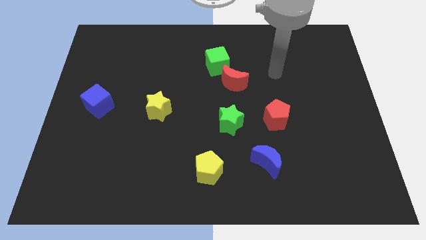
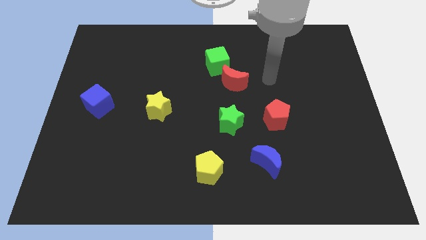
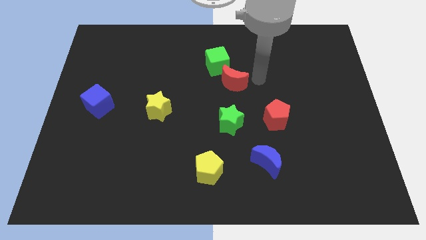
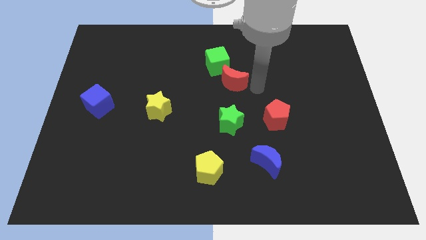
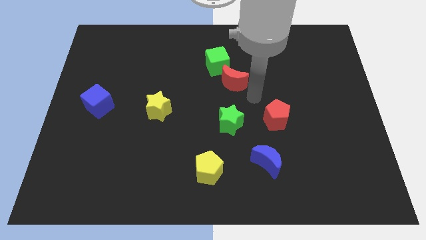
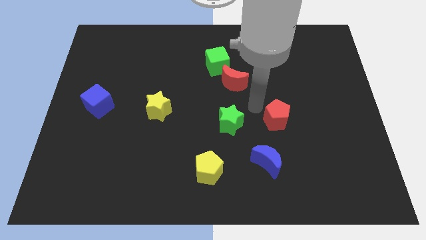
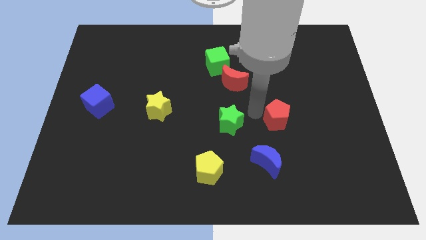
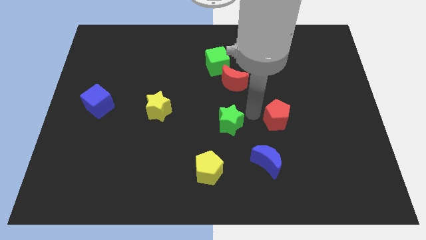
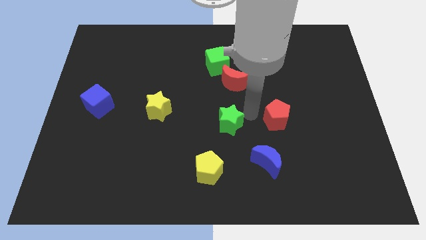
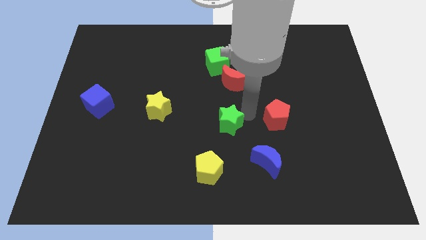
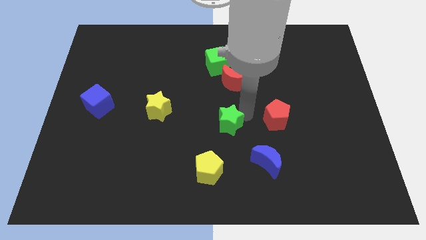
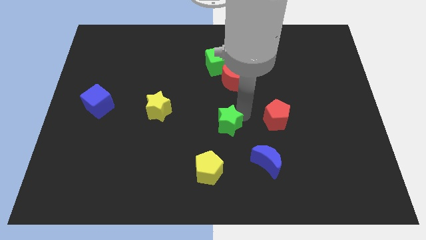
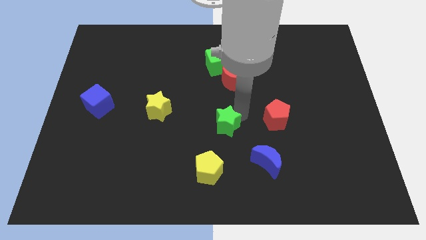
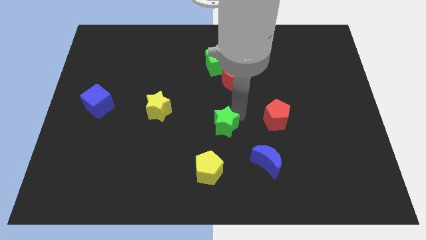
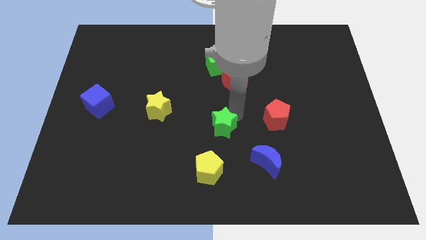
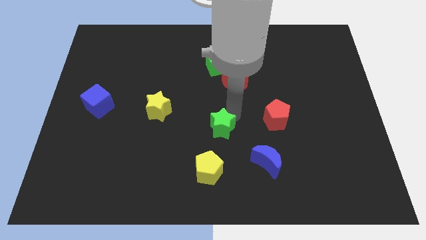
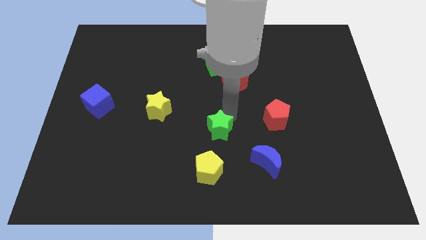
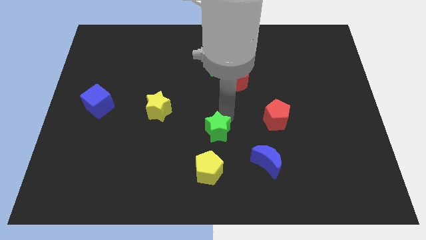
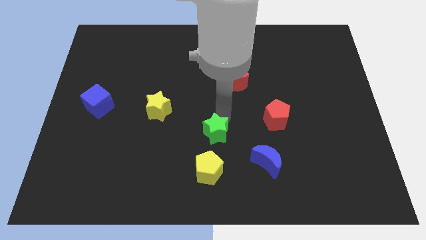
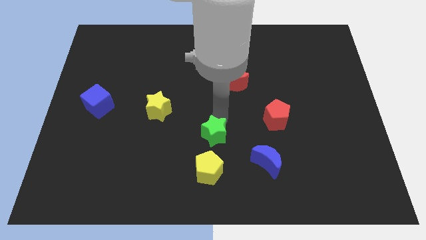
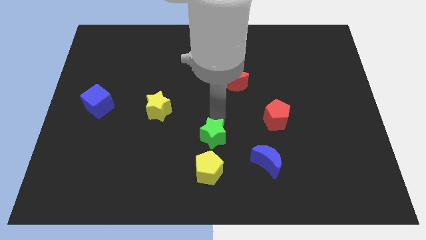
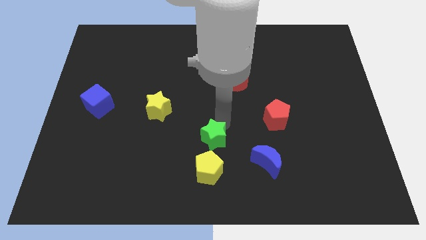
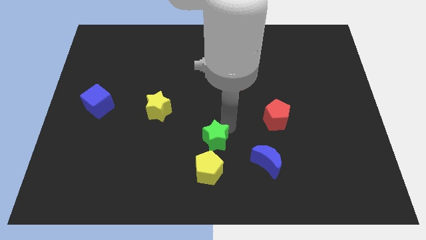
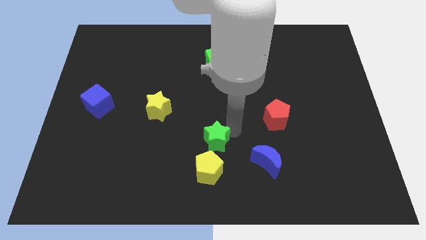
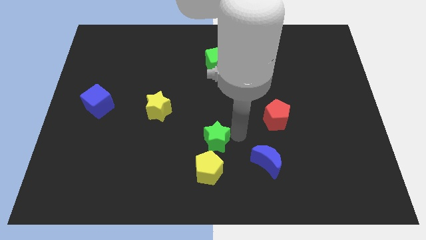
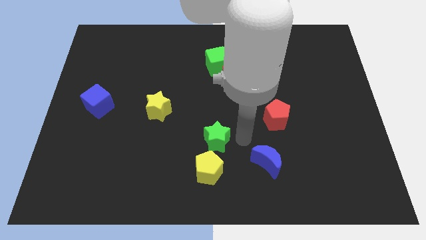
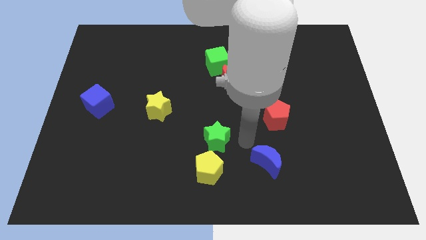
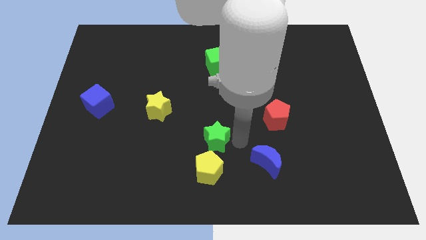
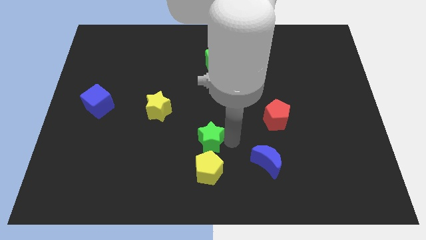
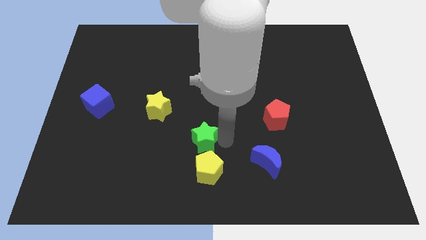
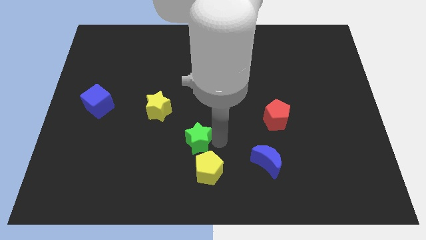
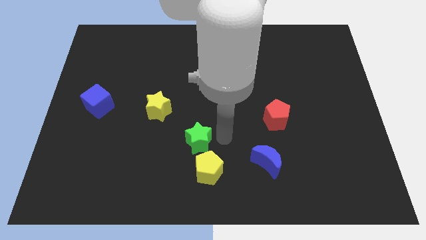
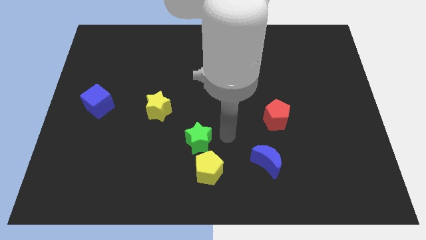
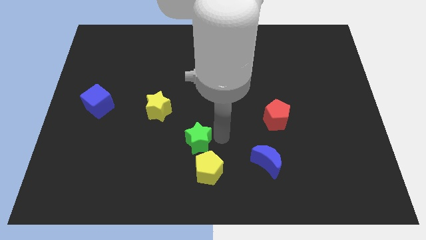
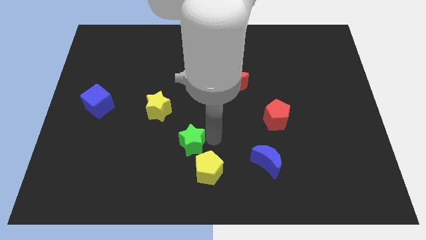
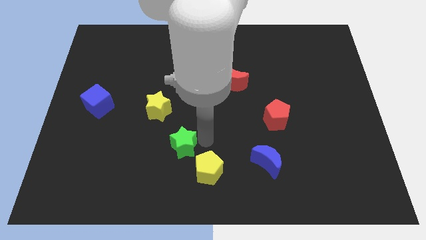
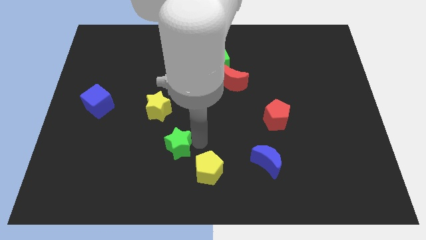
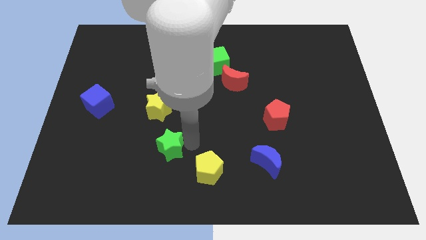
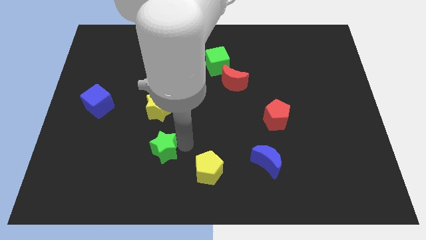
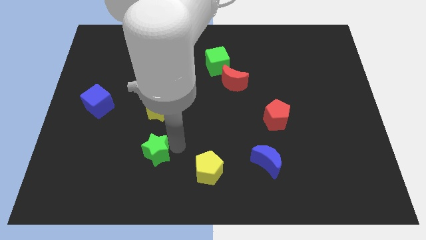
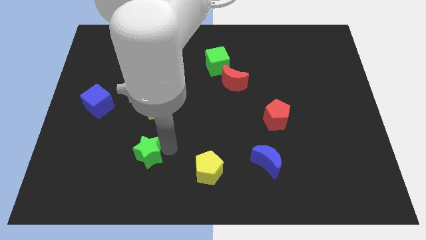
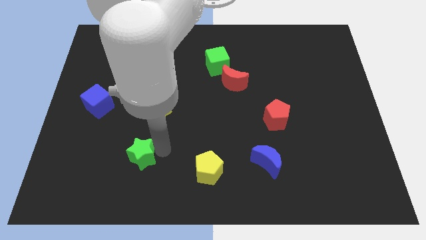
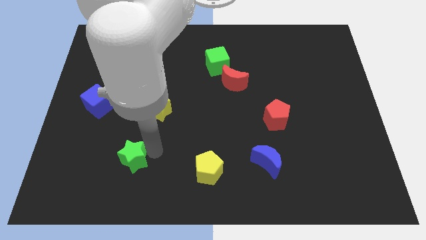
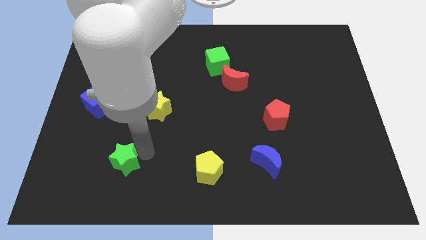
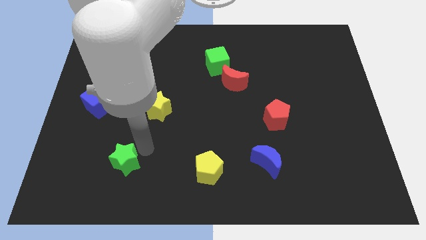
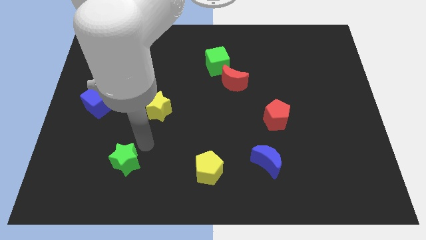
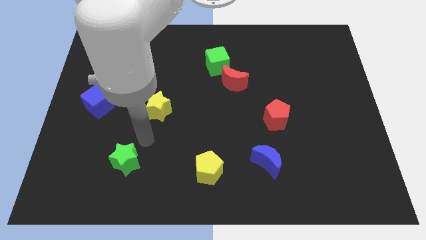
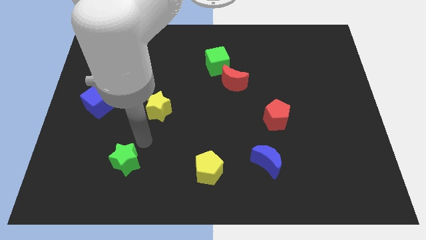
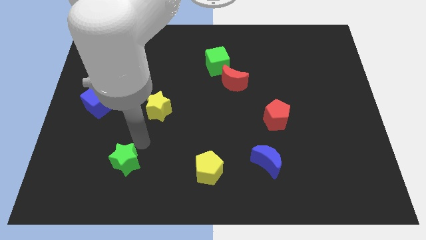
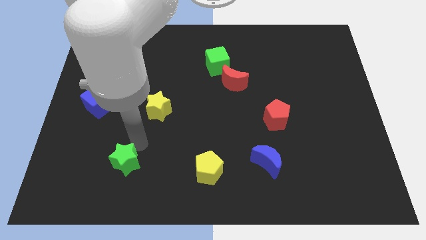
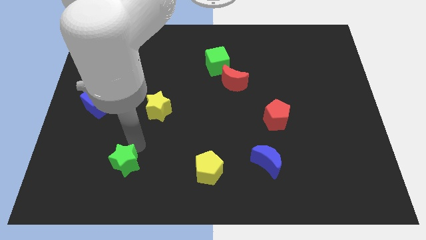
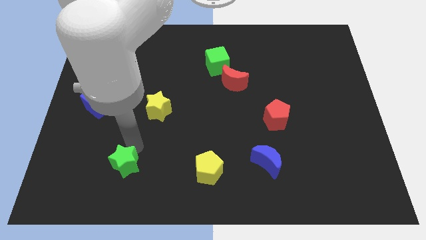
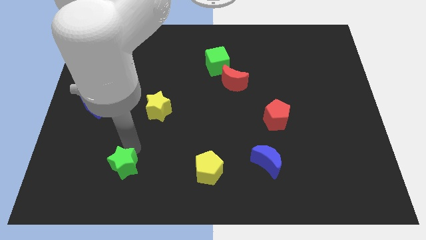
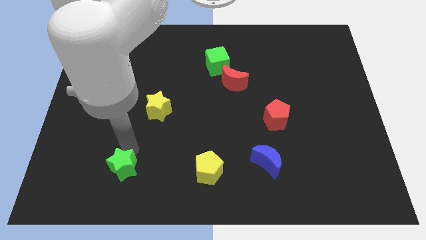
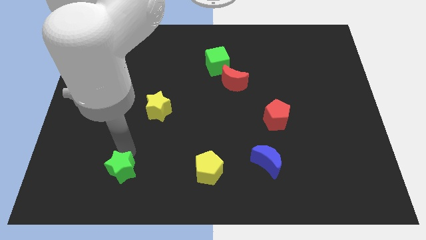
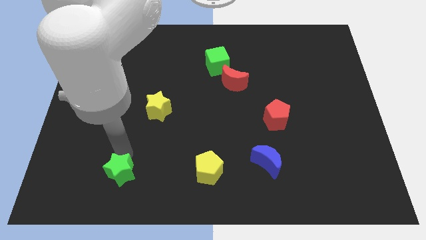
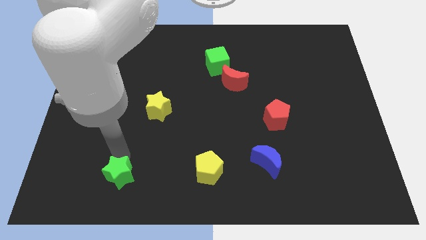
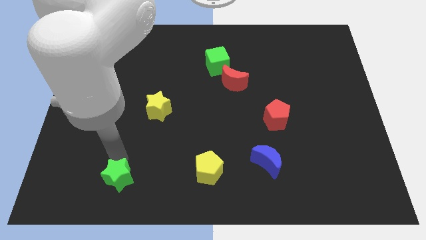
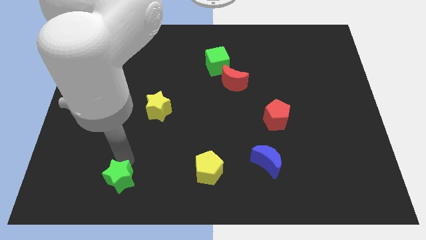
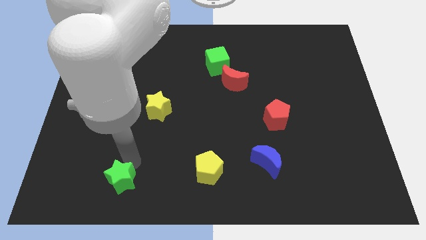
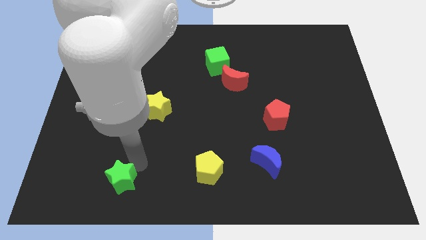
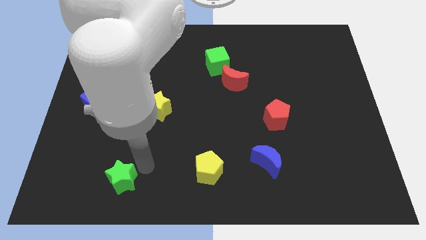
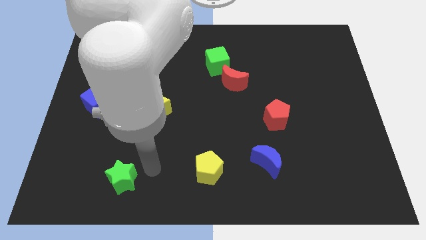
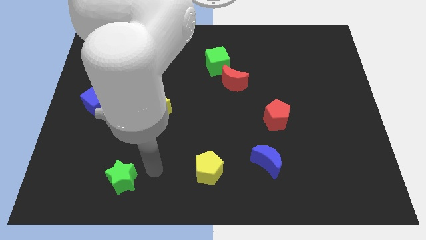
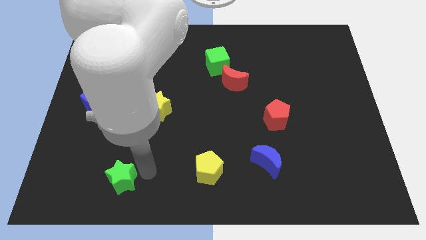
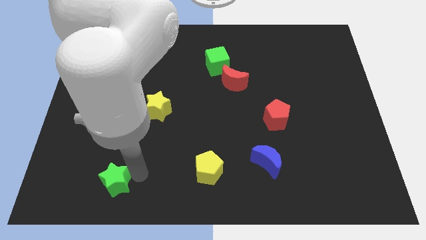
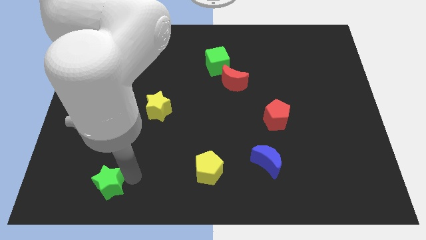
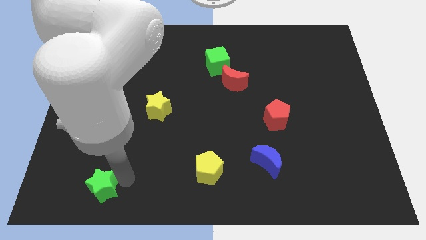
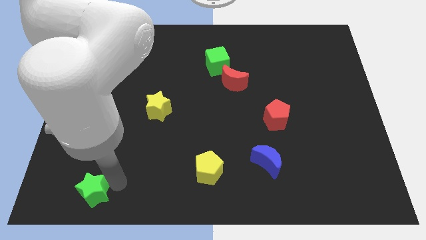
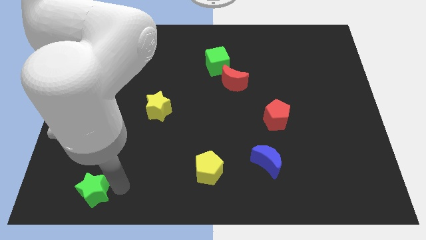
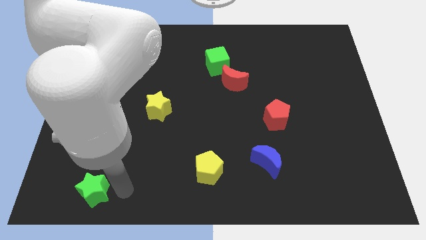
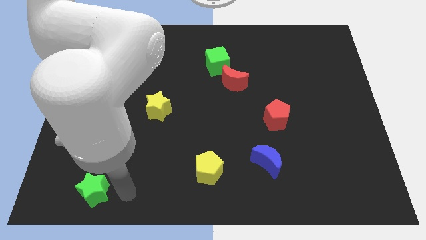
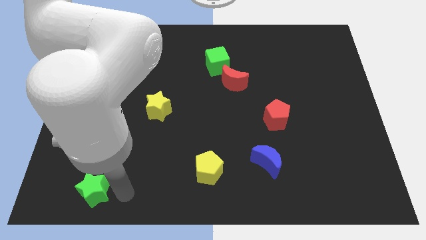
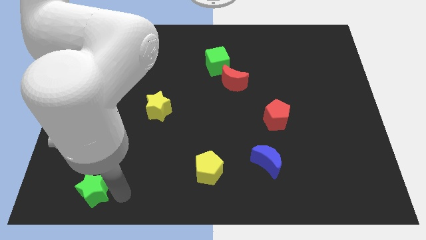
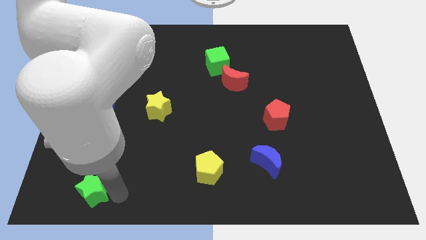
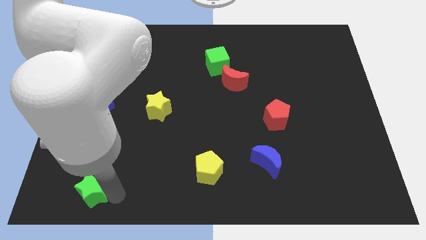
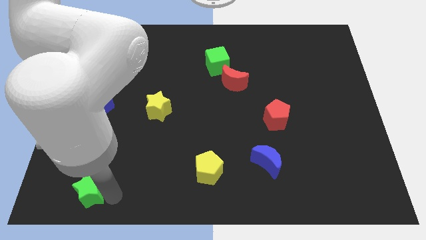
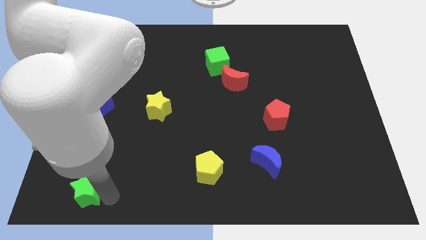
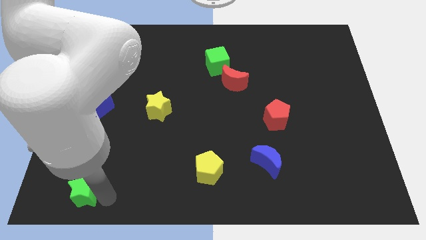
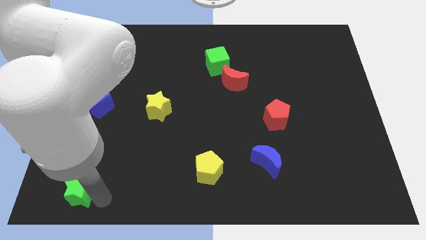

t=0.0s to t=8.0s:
push the green star to the bottom left of the board
